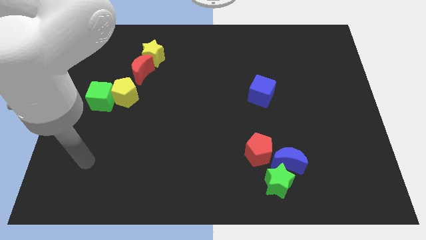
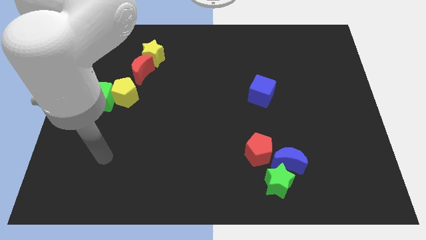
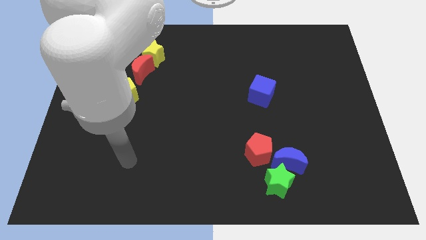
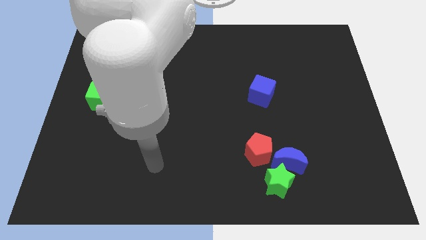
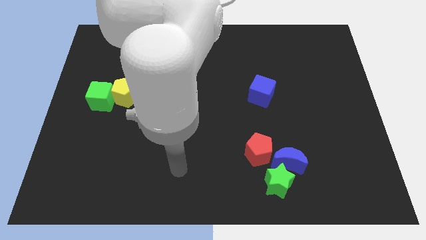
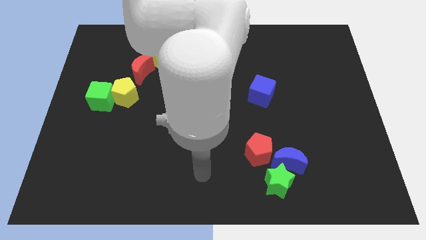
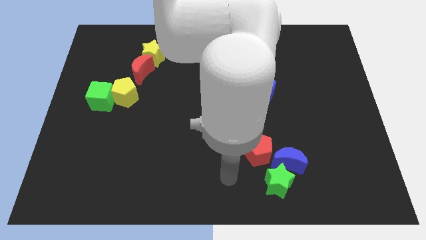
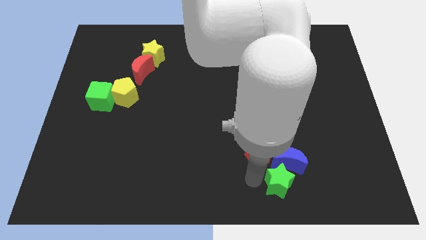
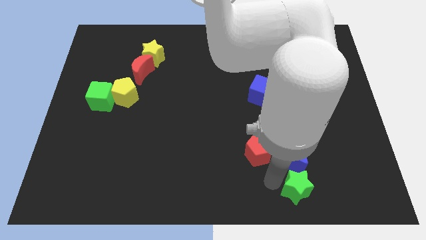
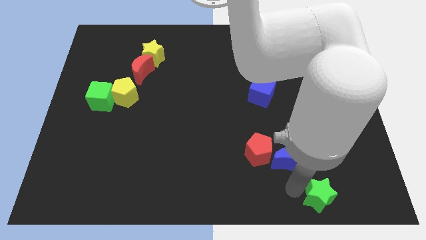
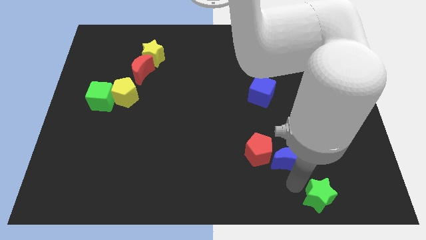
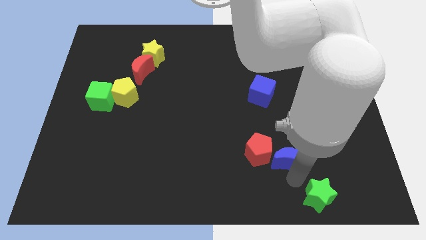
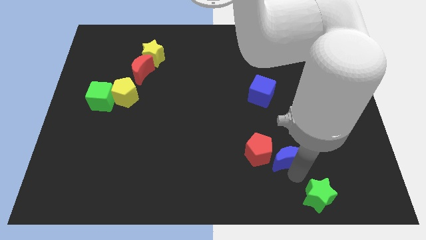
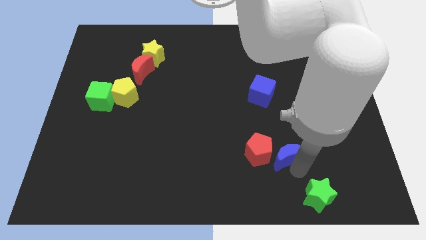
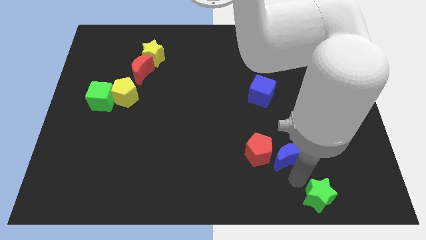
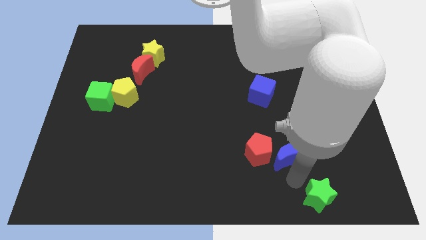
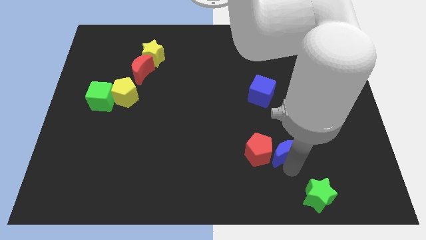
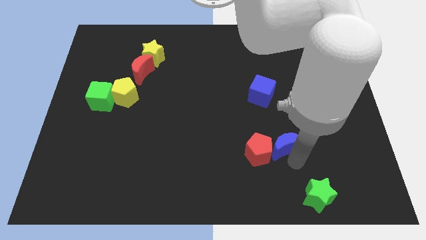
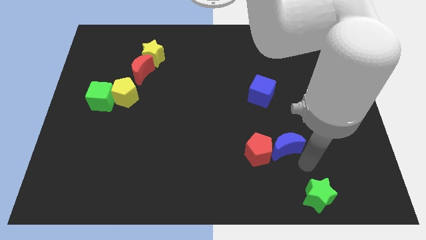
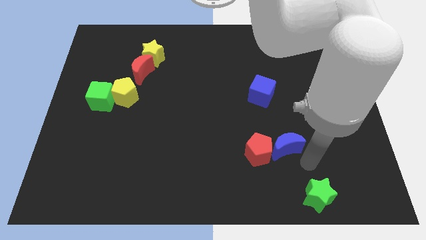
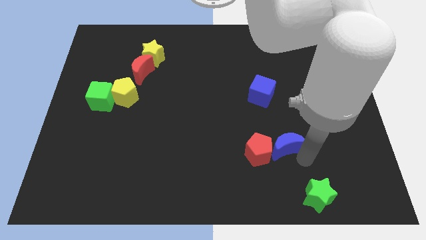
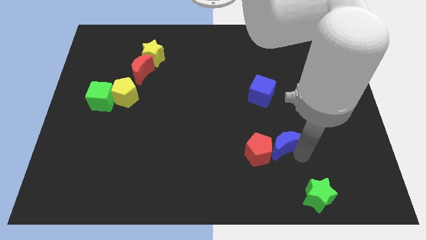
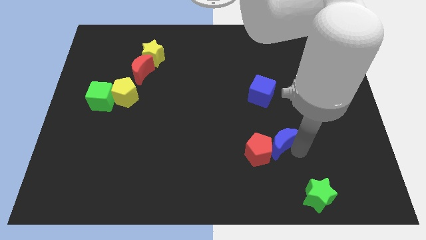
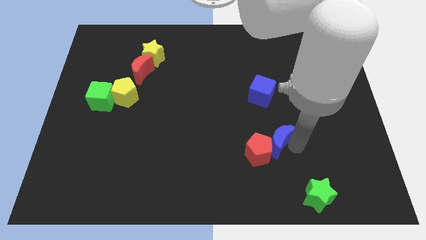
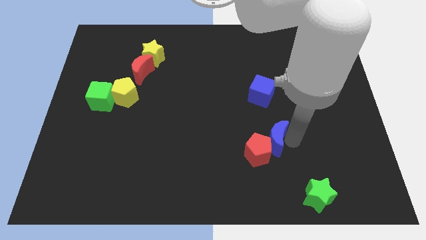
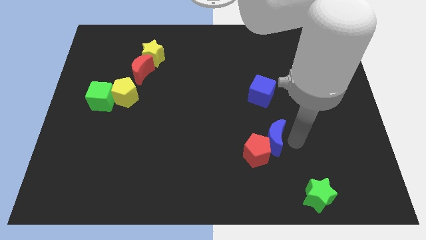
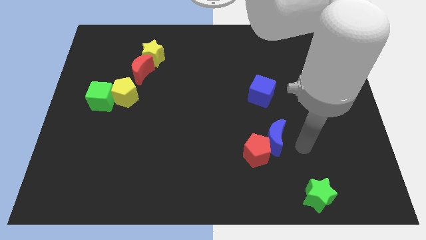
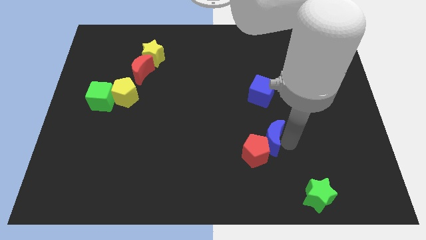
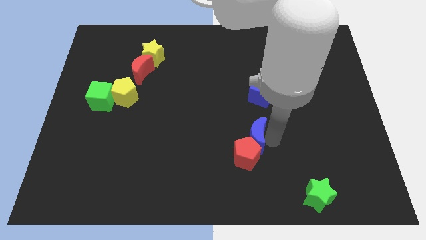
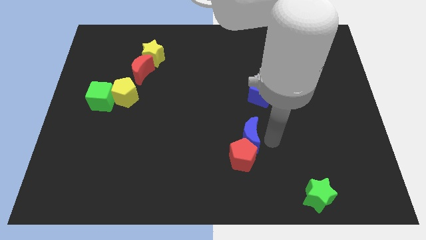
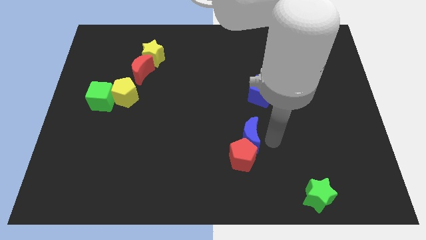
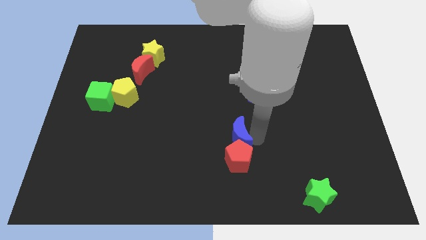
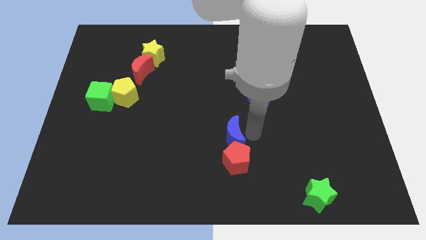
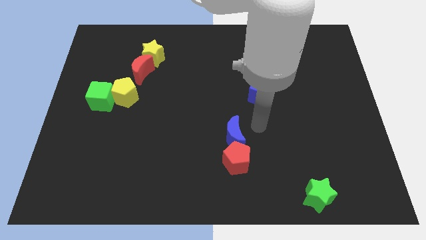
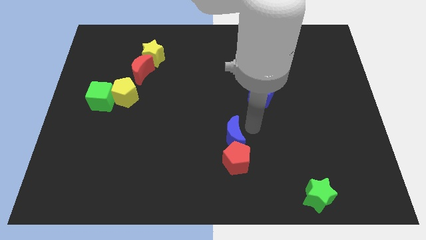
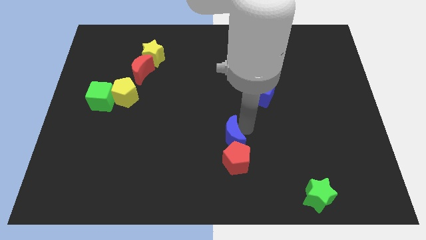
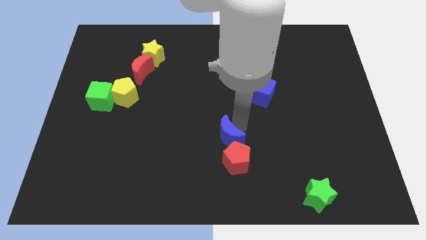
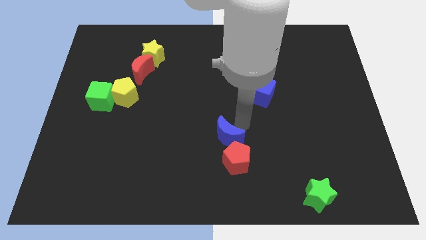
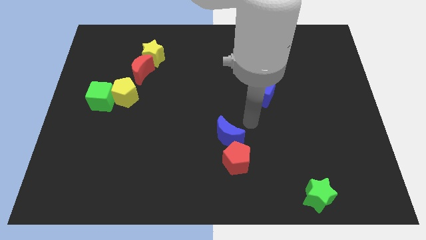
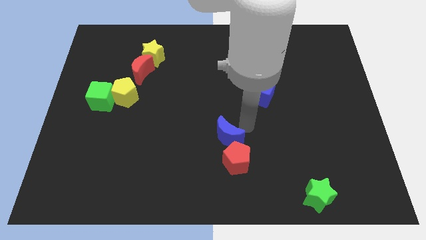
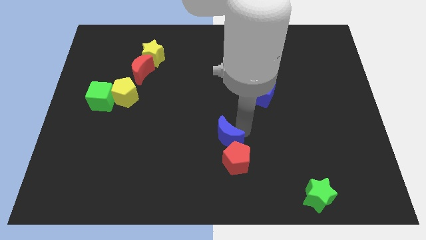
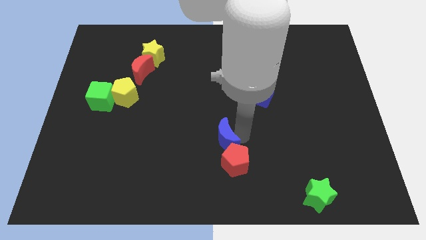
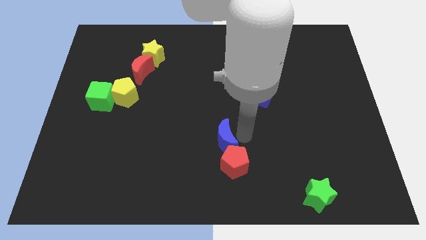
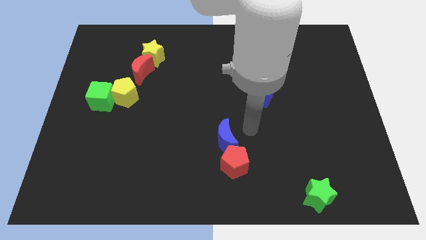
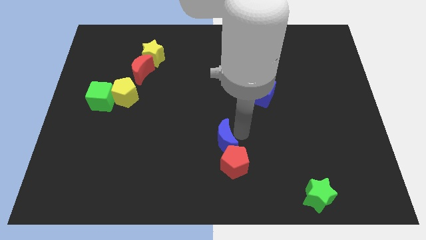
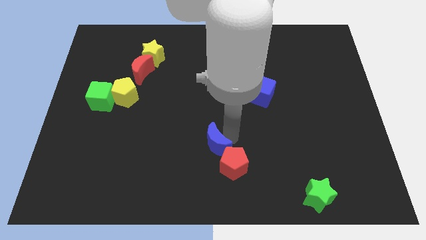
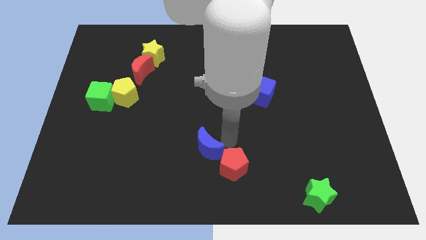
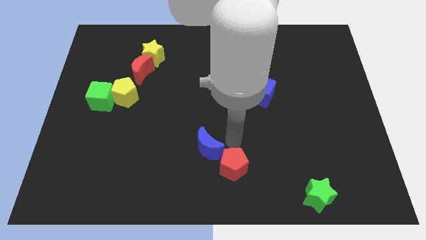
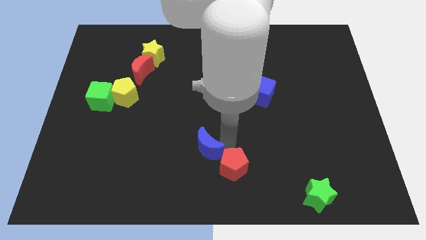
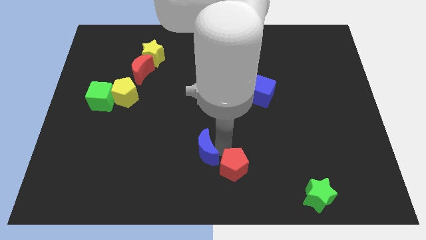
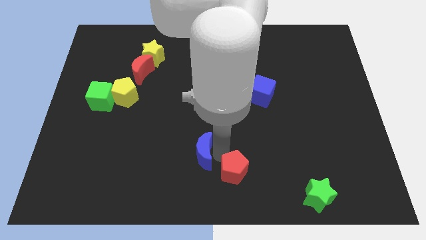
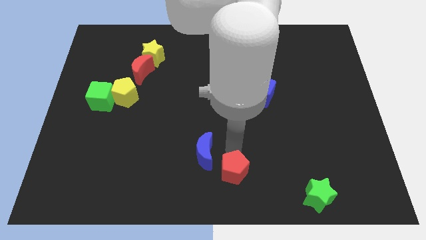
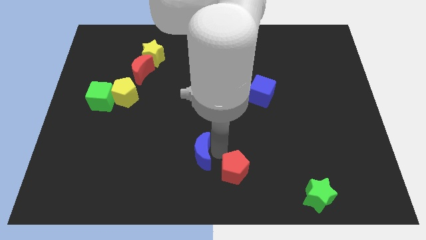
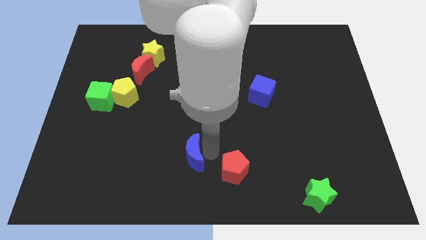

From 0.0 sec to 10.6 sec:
push the blue moon left

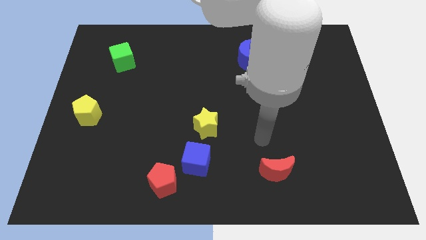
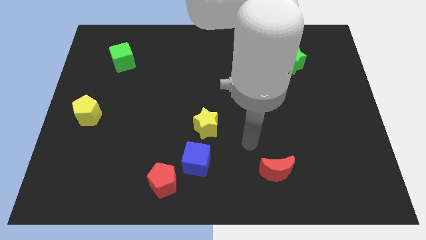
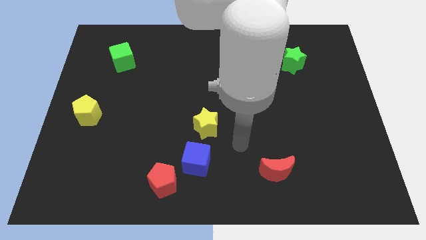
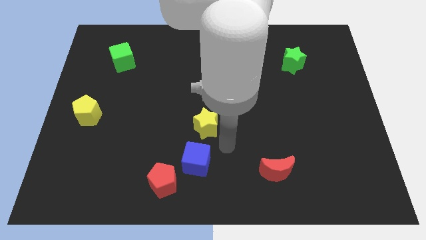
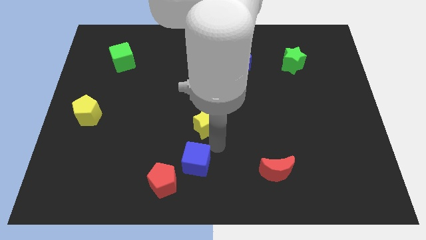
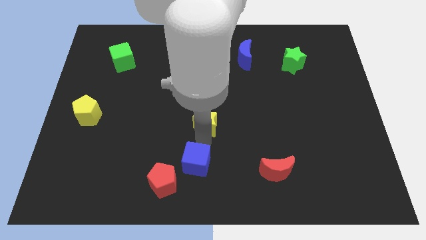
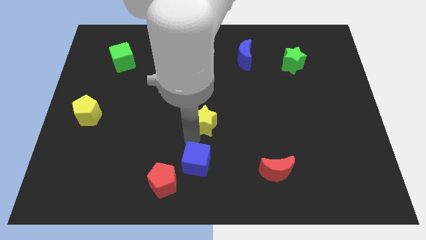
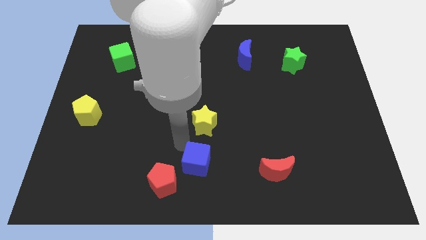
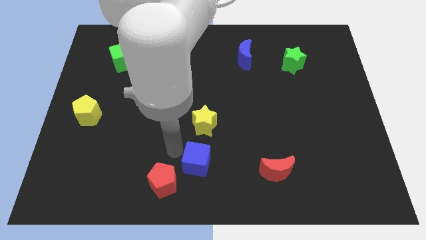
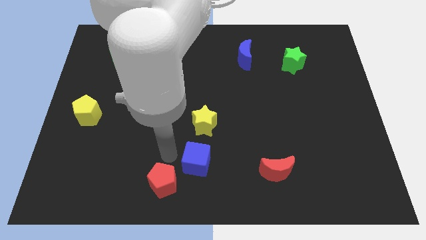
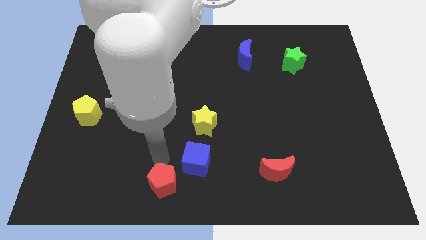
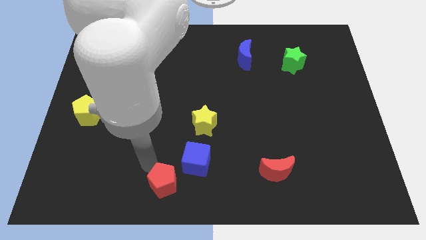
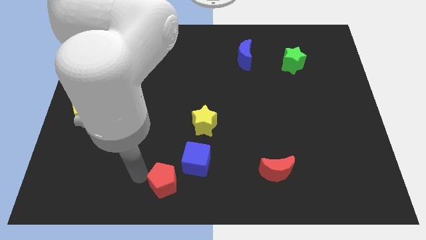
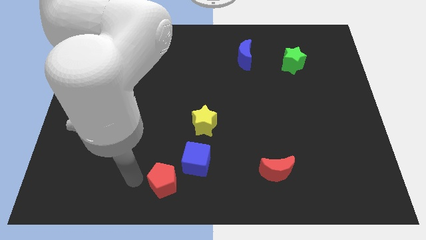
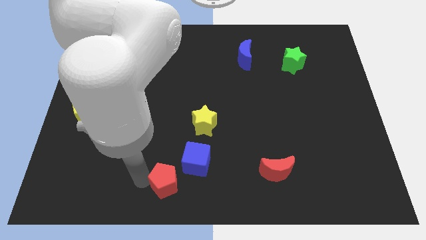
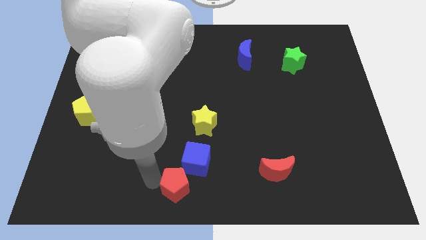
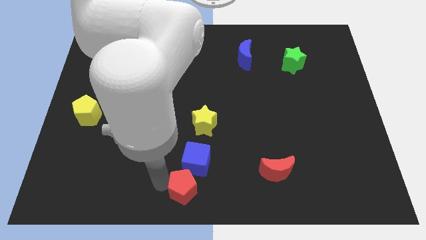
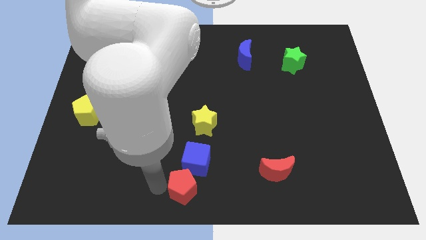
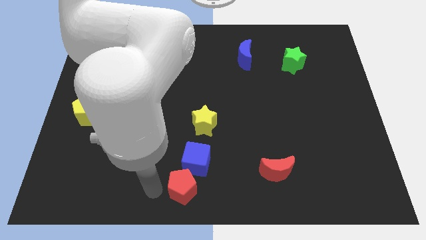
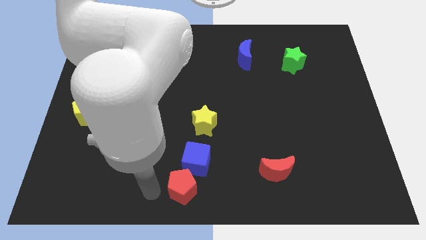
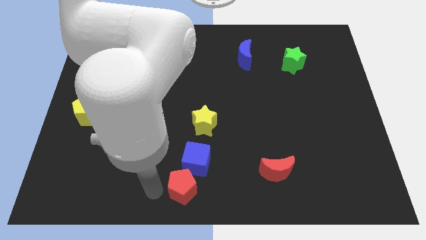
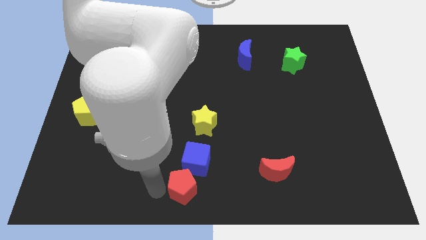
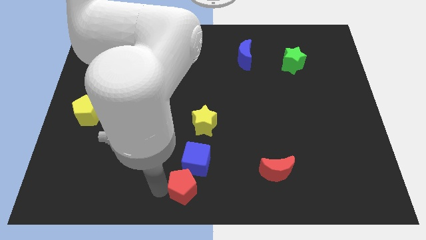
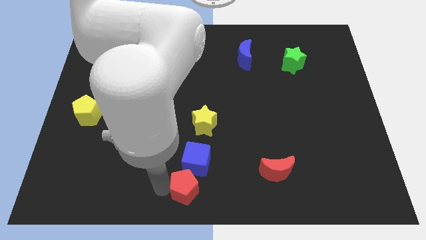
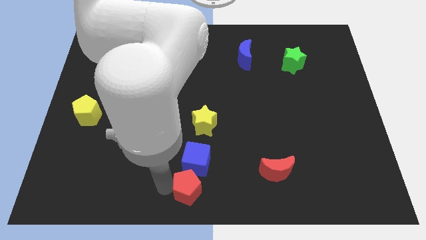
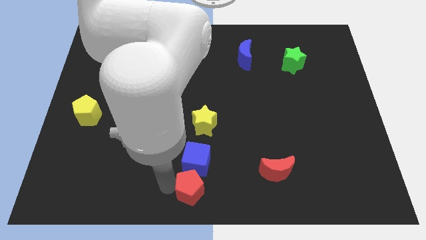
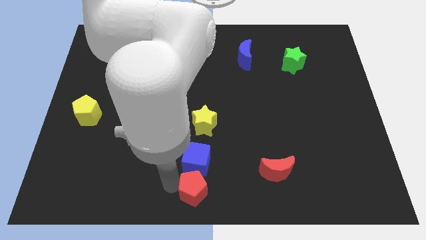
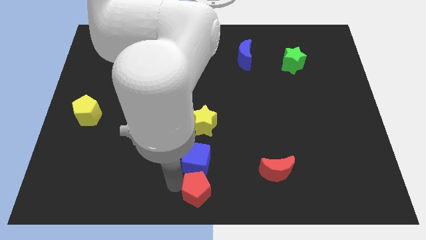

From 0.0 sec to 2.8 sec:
push the red pentagon slightly to the right
